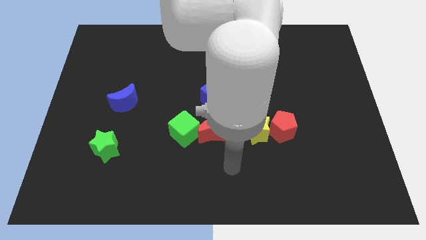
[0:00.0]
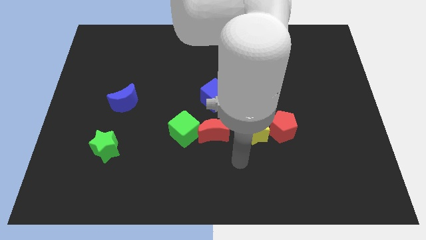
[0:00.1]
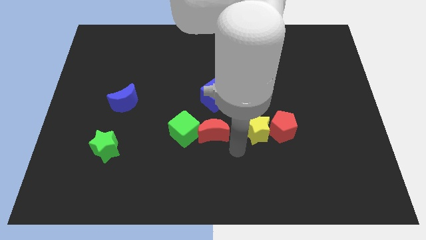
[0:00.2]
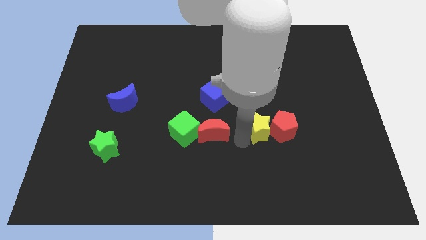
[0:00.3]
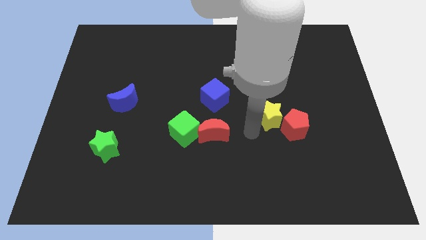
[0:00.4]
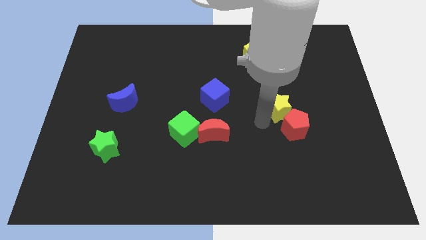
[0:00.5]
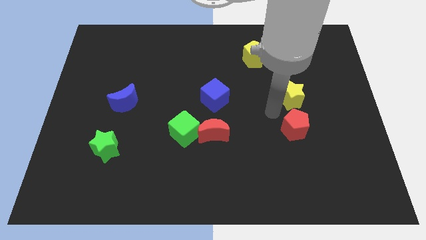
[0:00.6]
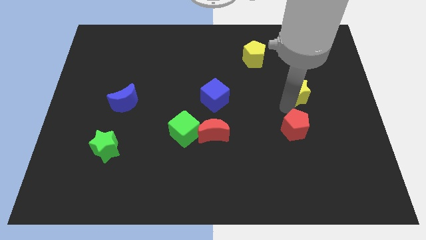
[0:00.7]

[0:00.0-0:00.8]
pull the red pentagon apart from the yellow star

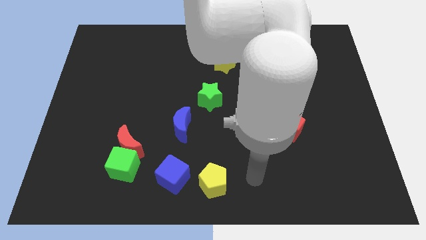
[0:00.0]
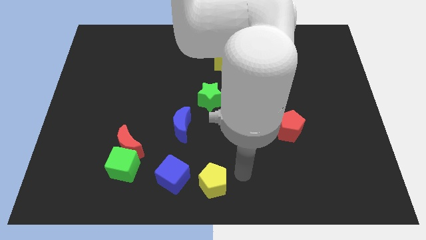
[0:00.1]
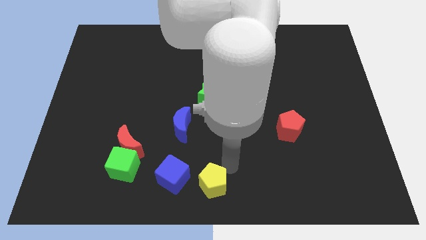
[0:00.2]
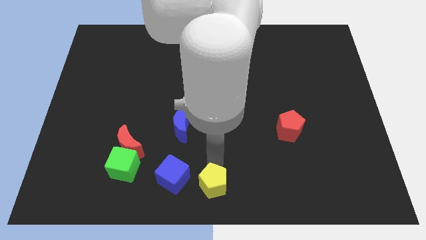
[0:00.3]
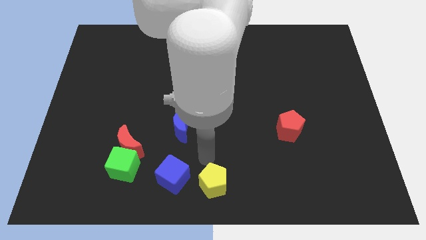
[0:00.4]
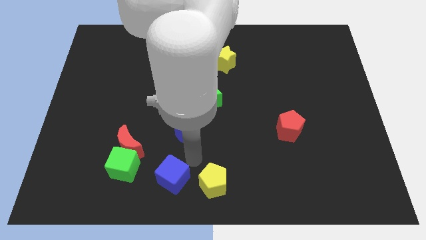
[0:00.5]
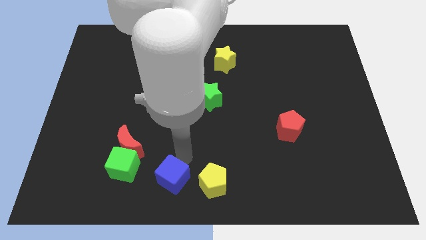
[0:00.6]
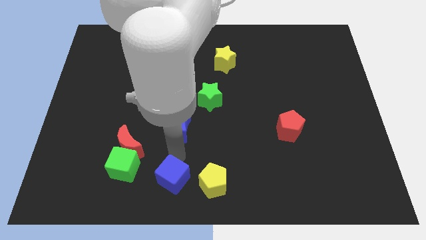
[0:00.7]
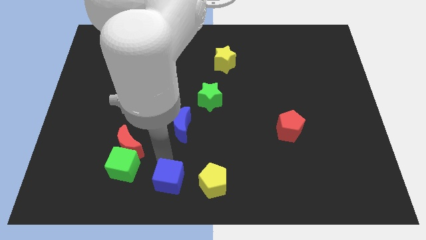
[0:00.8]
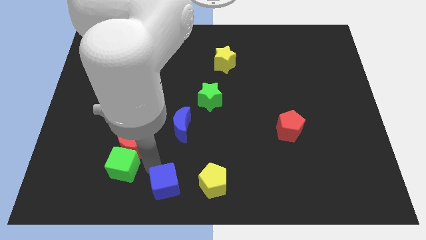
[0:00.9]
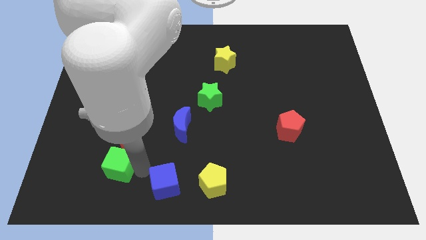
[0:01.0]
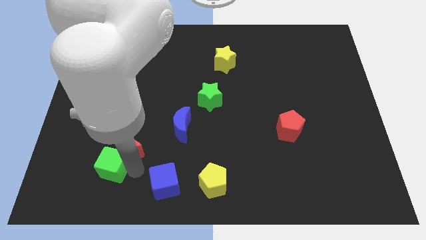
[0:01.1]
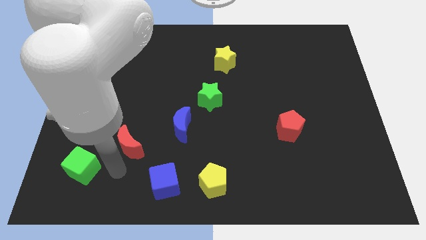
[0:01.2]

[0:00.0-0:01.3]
move the red moon away from the green cube

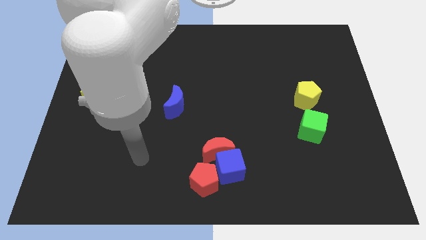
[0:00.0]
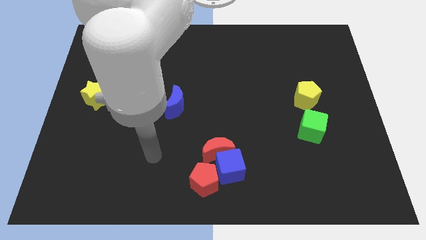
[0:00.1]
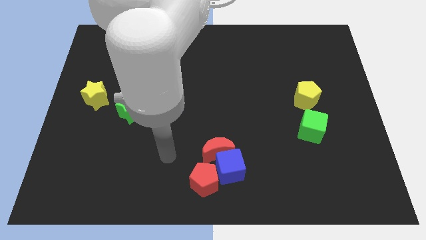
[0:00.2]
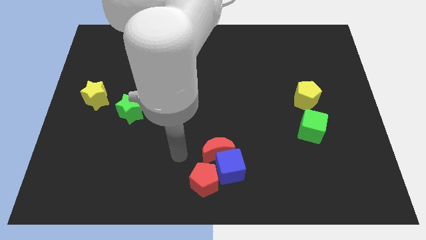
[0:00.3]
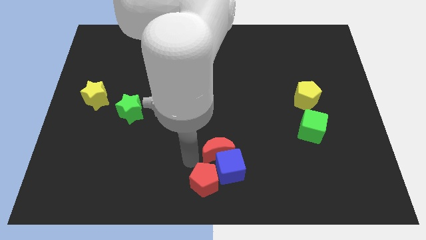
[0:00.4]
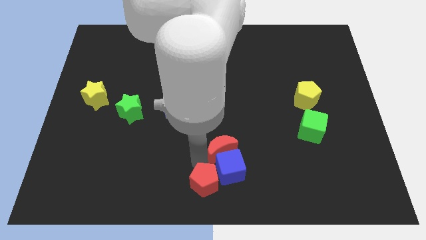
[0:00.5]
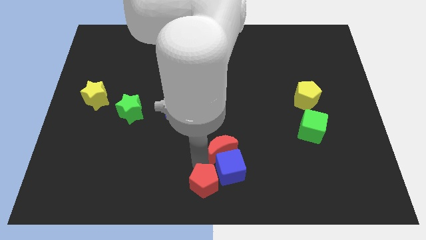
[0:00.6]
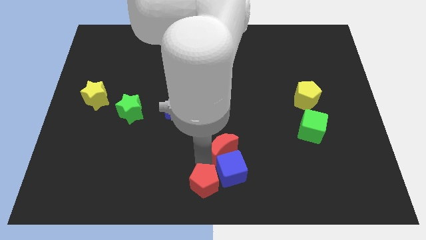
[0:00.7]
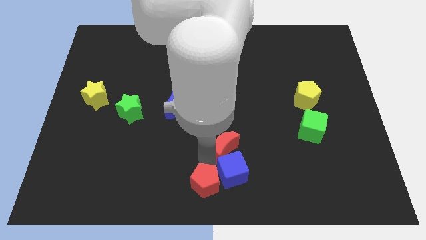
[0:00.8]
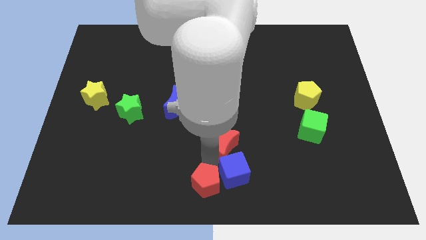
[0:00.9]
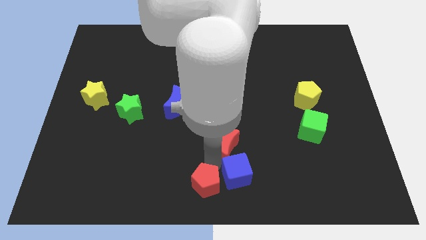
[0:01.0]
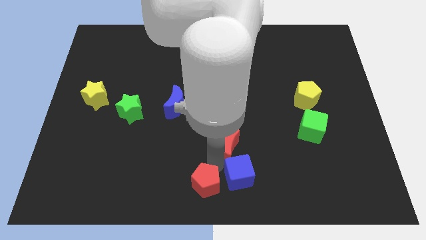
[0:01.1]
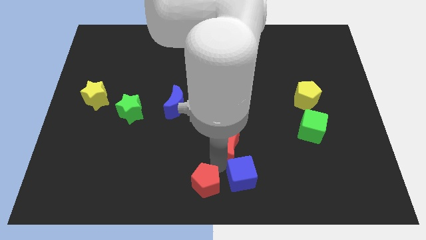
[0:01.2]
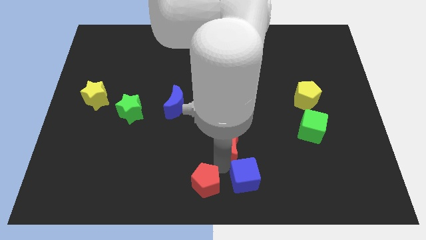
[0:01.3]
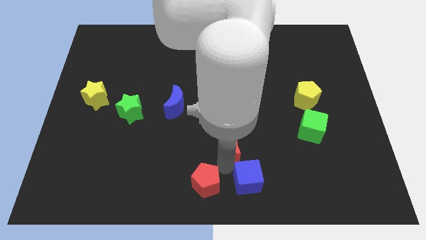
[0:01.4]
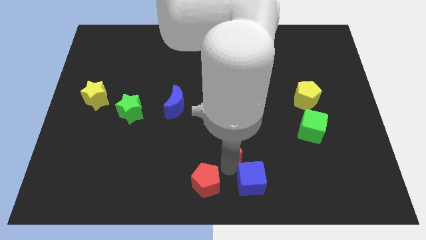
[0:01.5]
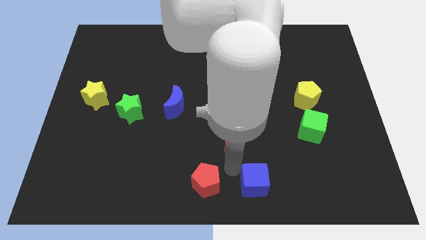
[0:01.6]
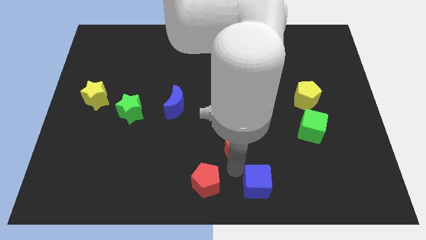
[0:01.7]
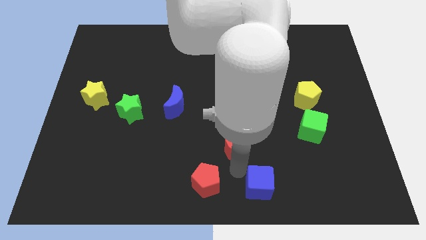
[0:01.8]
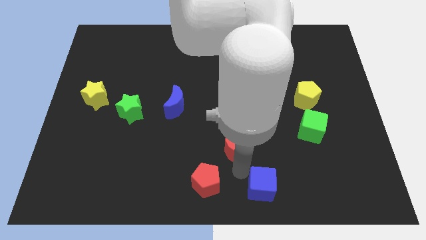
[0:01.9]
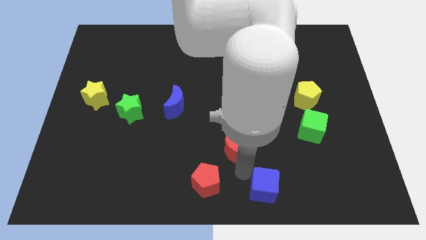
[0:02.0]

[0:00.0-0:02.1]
move the blue cube away from the red moon and red pentagon

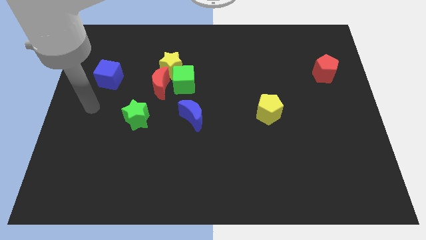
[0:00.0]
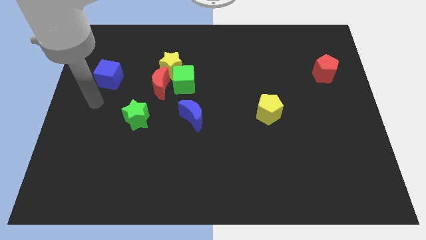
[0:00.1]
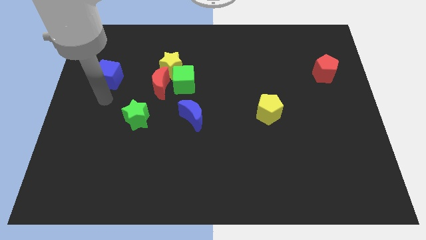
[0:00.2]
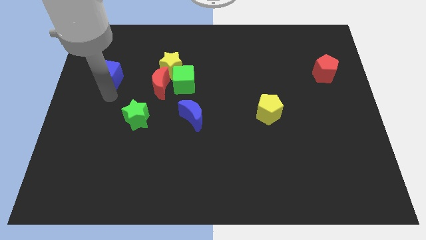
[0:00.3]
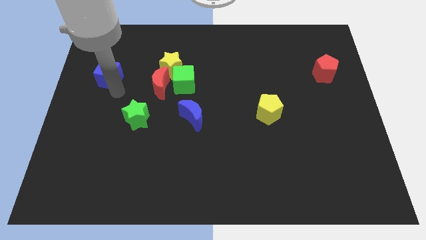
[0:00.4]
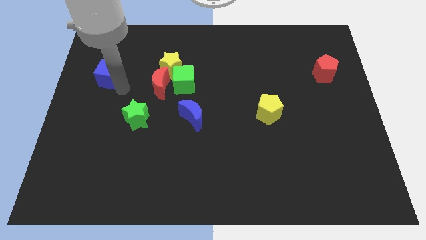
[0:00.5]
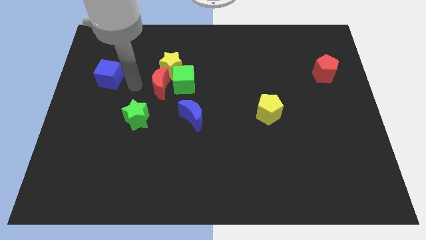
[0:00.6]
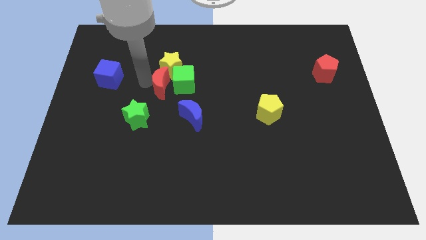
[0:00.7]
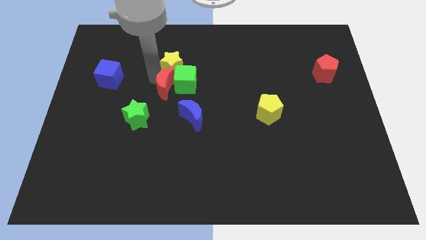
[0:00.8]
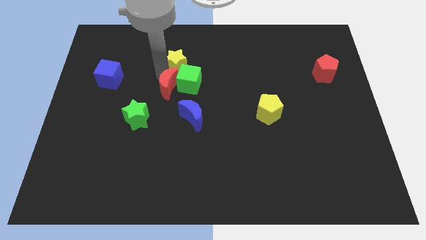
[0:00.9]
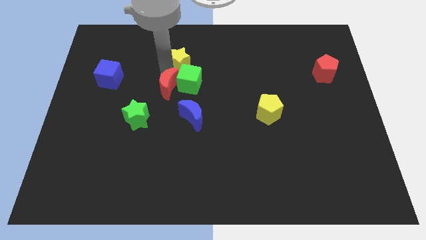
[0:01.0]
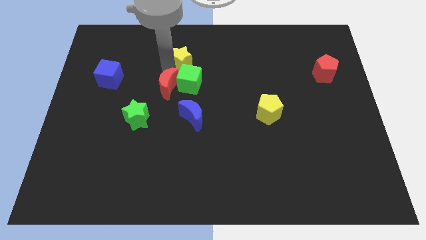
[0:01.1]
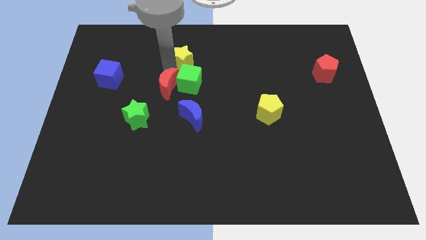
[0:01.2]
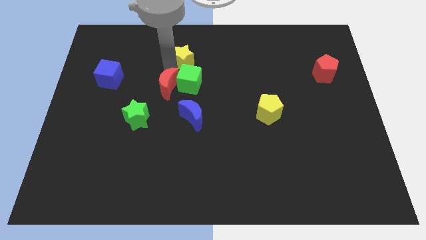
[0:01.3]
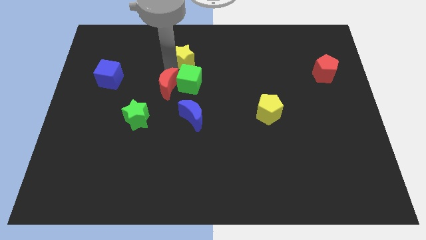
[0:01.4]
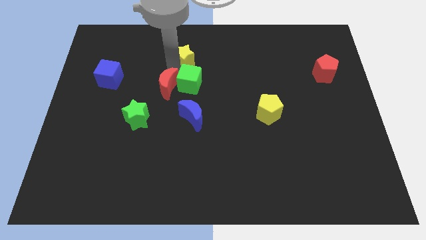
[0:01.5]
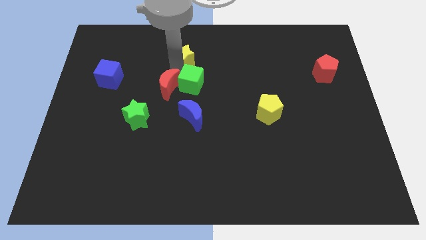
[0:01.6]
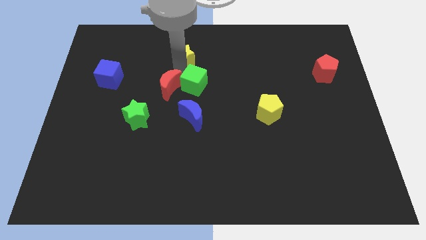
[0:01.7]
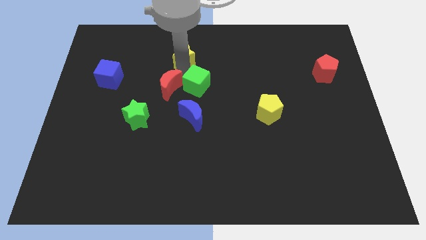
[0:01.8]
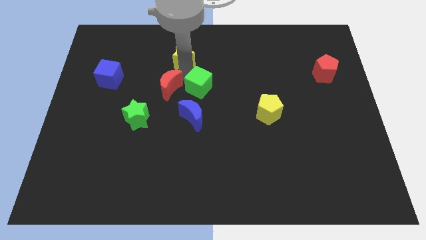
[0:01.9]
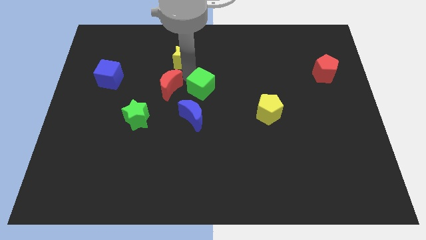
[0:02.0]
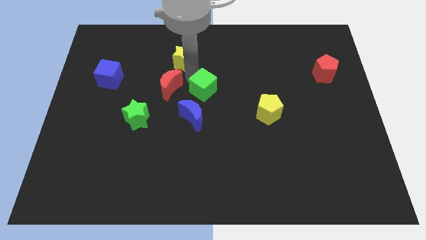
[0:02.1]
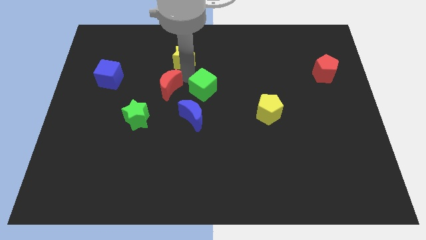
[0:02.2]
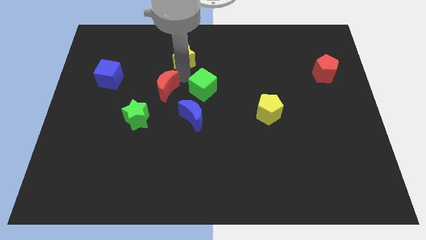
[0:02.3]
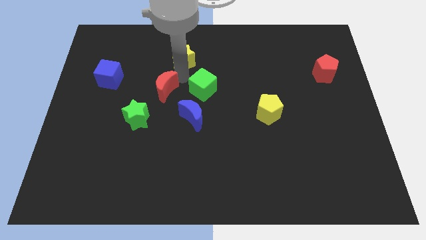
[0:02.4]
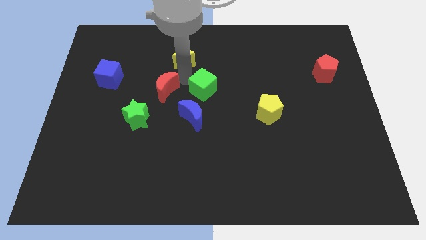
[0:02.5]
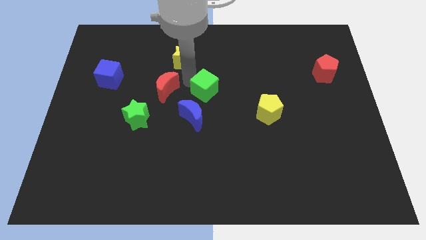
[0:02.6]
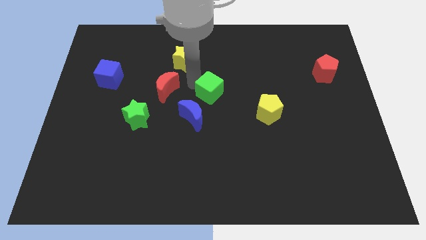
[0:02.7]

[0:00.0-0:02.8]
move the green cube away from the red moon and yellow star

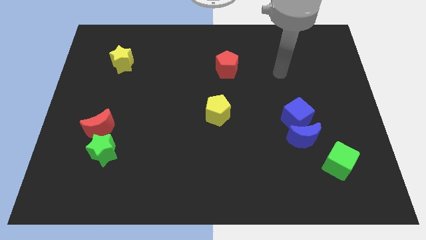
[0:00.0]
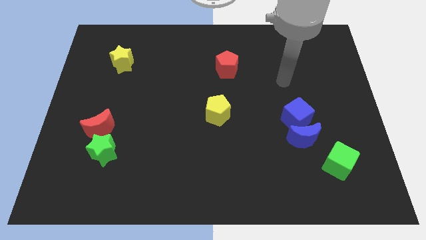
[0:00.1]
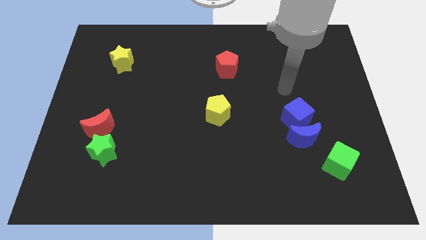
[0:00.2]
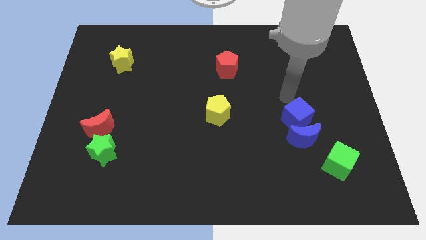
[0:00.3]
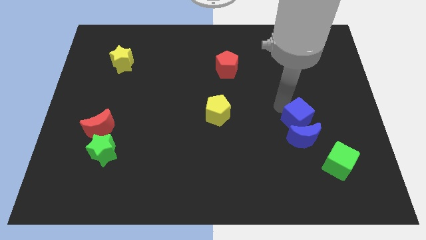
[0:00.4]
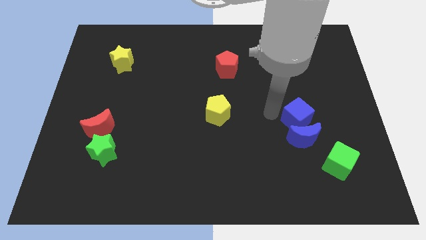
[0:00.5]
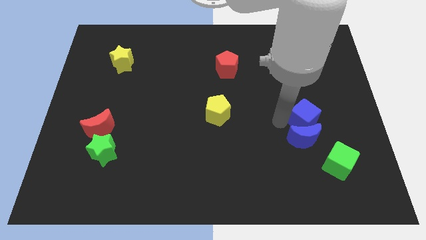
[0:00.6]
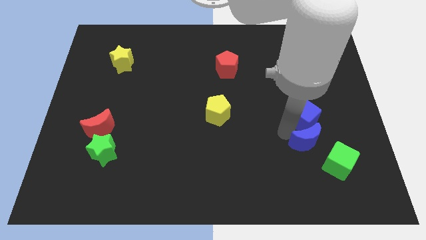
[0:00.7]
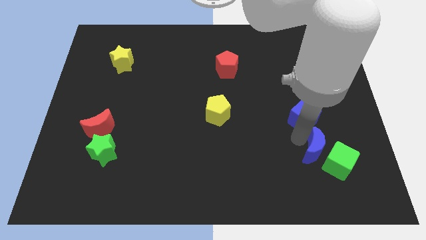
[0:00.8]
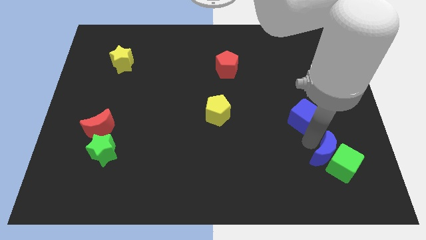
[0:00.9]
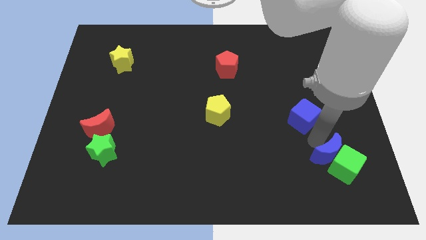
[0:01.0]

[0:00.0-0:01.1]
move the blue cube away from the blue moon

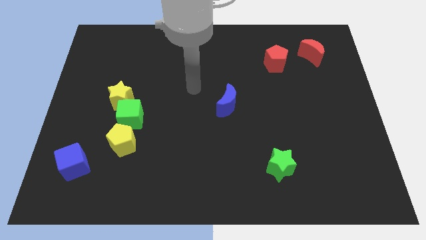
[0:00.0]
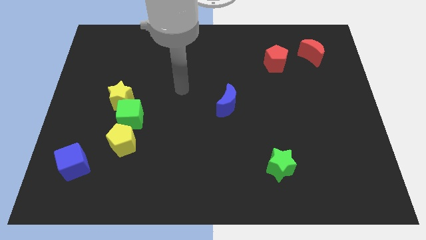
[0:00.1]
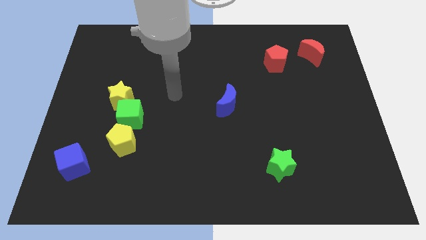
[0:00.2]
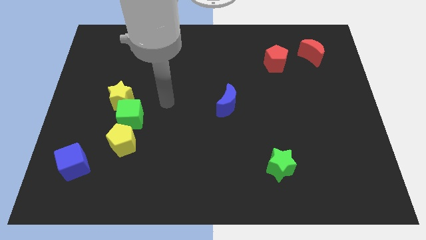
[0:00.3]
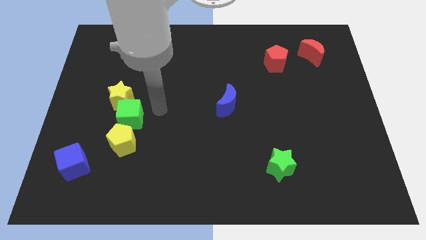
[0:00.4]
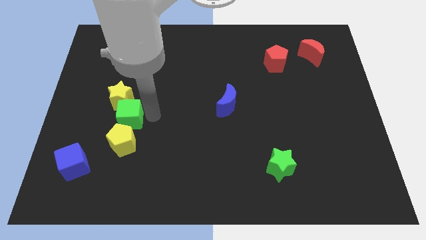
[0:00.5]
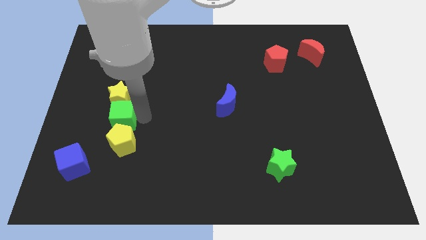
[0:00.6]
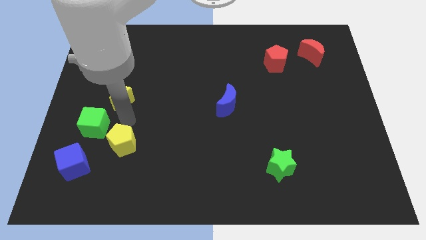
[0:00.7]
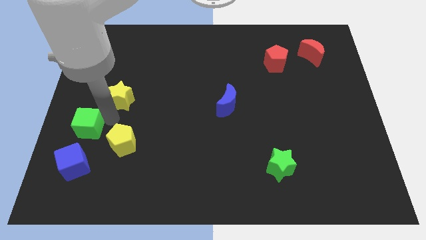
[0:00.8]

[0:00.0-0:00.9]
move the yellow star away from the green cube

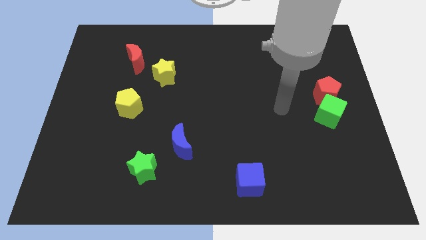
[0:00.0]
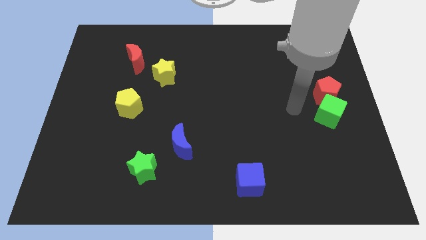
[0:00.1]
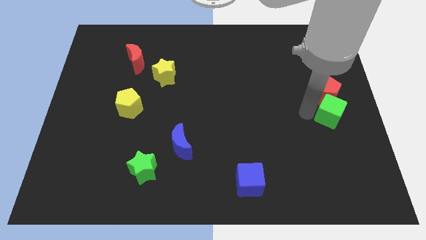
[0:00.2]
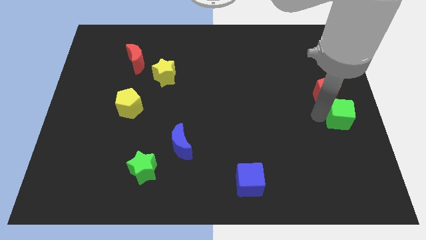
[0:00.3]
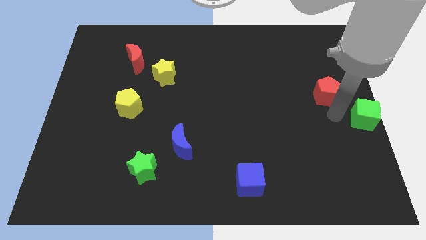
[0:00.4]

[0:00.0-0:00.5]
separate the red pentagon from the green cube

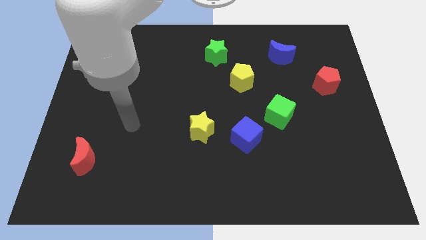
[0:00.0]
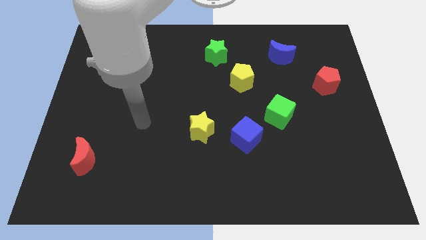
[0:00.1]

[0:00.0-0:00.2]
pull the yellow star apart from the blue cube
